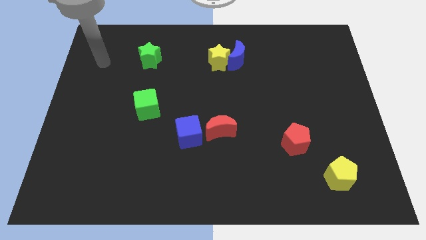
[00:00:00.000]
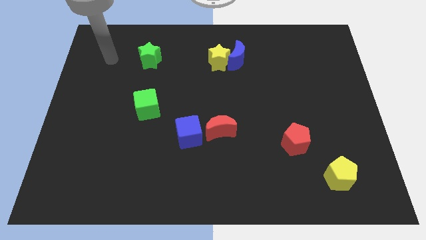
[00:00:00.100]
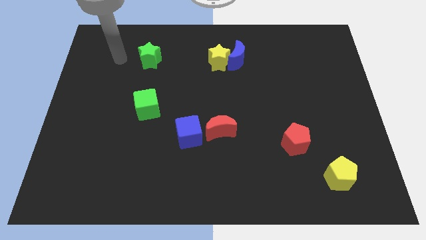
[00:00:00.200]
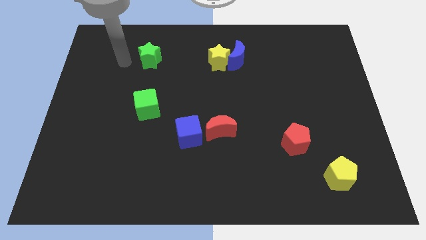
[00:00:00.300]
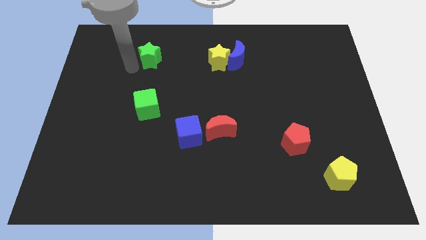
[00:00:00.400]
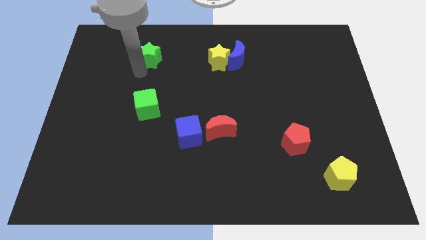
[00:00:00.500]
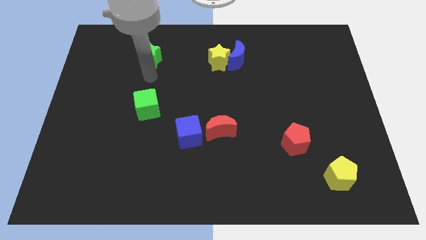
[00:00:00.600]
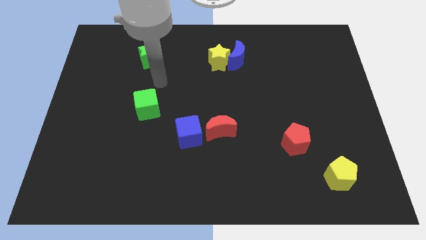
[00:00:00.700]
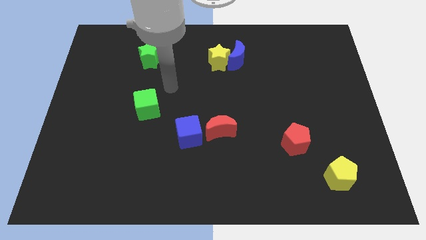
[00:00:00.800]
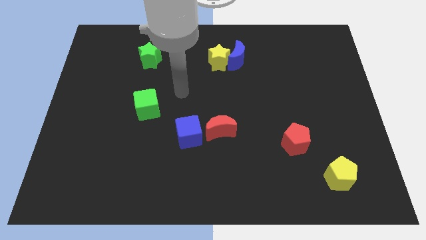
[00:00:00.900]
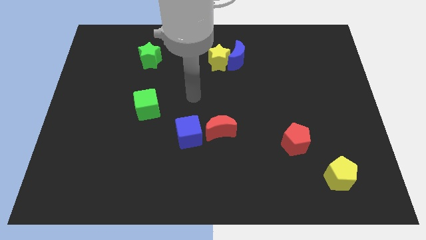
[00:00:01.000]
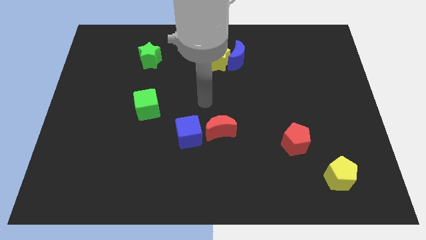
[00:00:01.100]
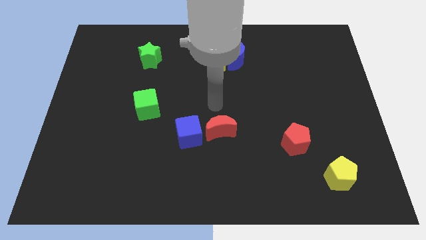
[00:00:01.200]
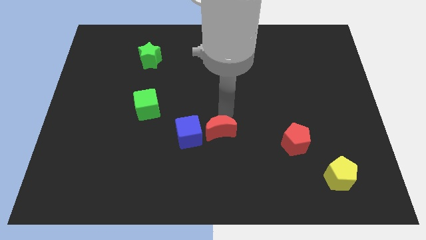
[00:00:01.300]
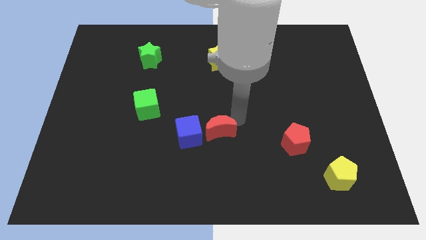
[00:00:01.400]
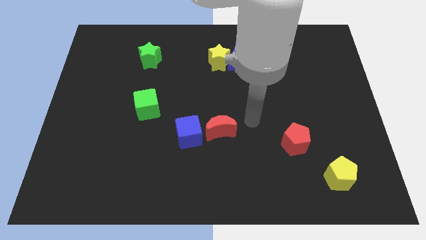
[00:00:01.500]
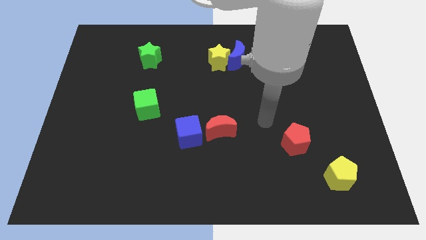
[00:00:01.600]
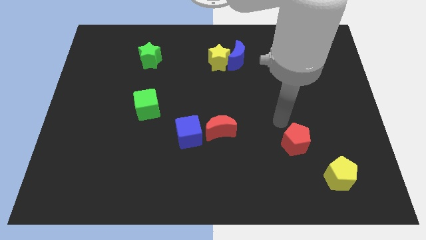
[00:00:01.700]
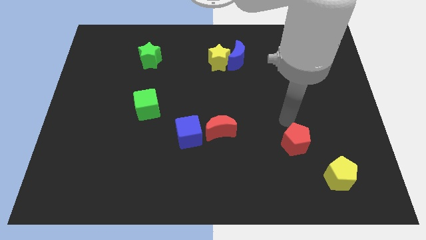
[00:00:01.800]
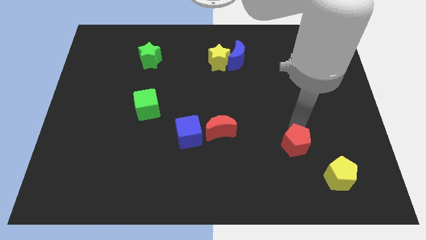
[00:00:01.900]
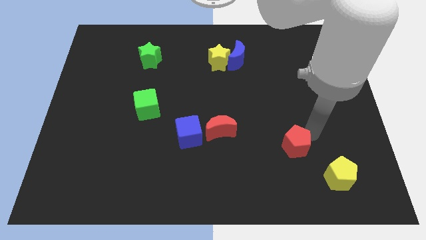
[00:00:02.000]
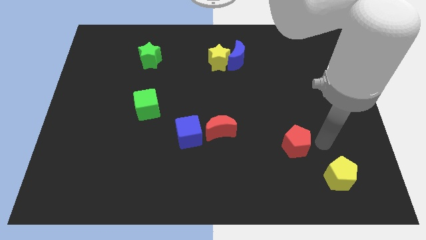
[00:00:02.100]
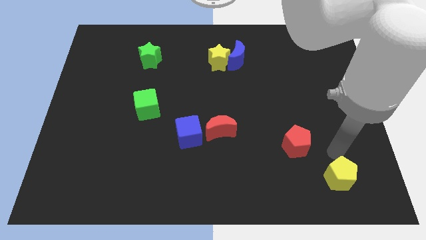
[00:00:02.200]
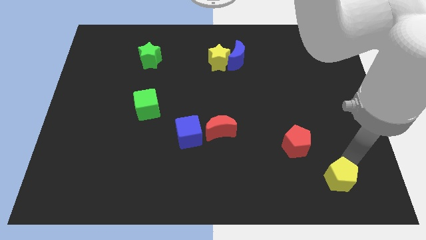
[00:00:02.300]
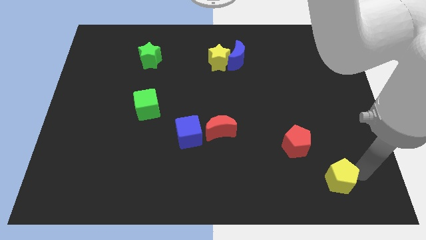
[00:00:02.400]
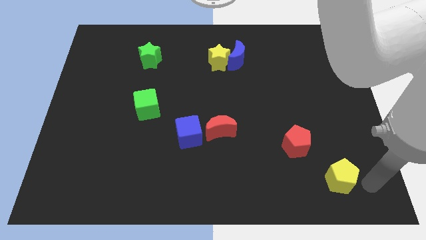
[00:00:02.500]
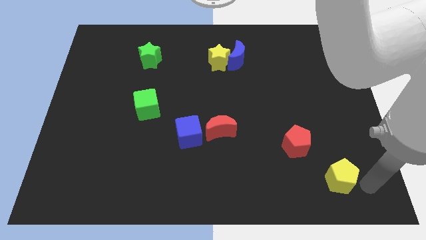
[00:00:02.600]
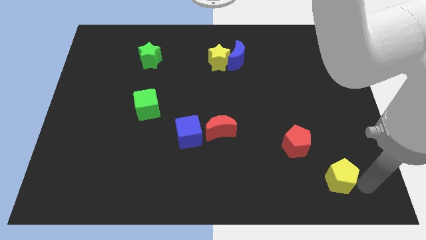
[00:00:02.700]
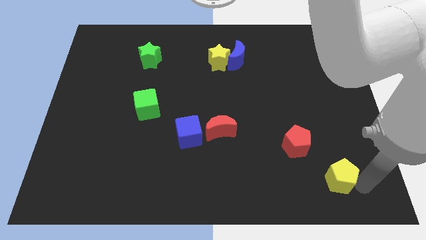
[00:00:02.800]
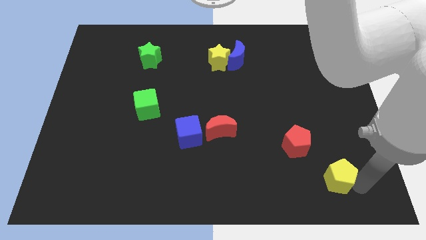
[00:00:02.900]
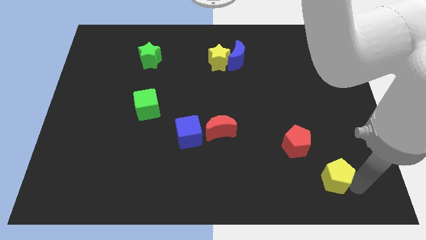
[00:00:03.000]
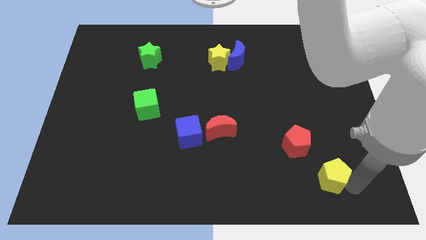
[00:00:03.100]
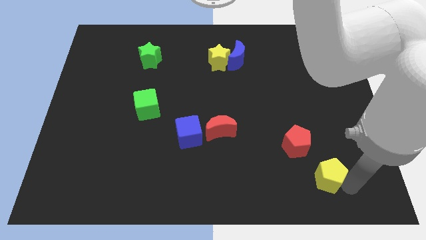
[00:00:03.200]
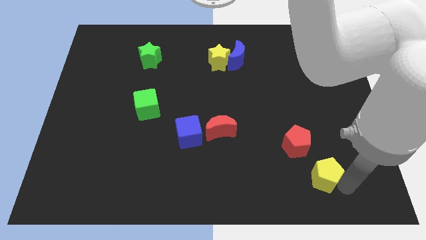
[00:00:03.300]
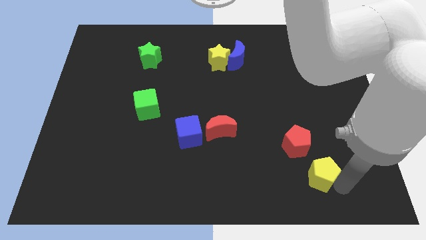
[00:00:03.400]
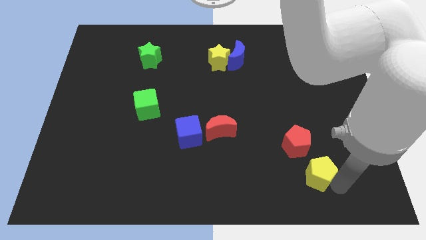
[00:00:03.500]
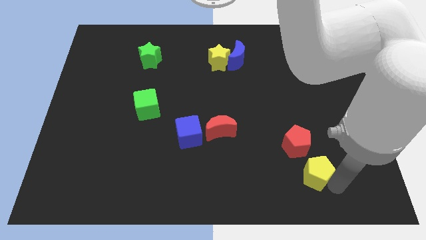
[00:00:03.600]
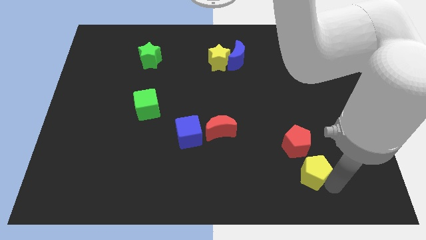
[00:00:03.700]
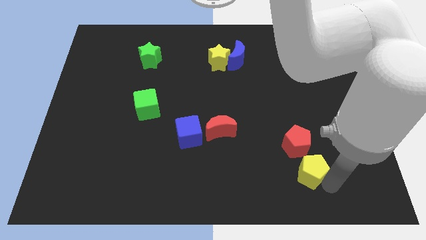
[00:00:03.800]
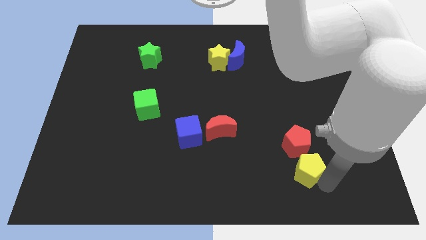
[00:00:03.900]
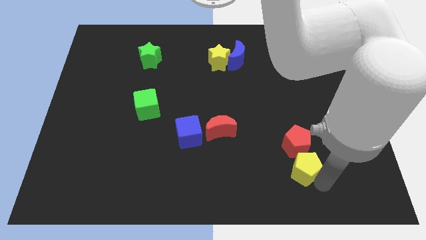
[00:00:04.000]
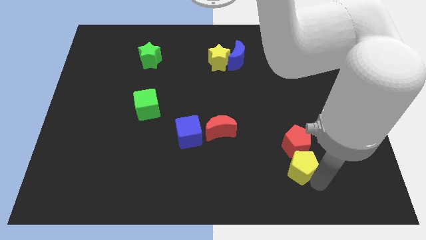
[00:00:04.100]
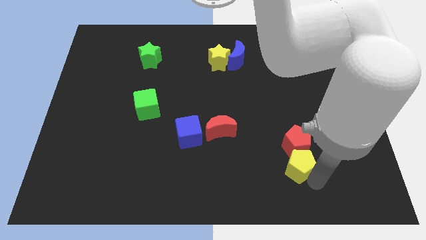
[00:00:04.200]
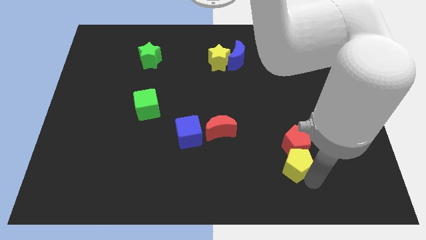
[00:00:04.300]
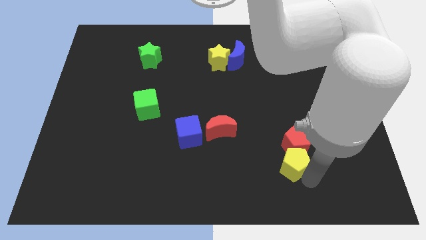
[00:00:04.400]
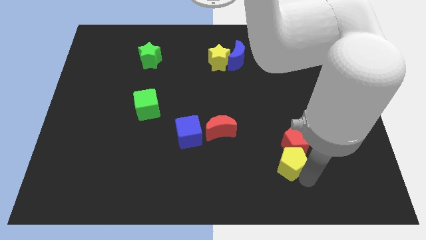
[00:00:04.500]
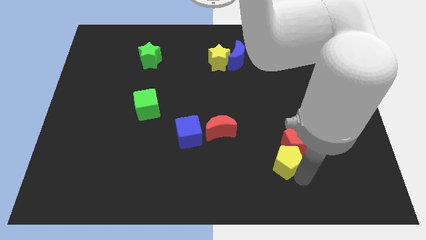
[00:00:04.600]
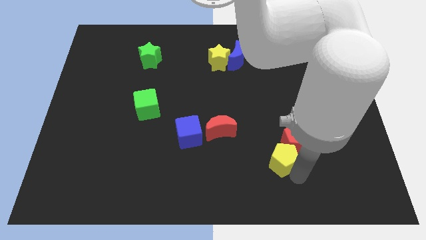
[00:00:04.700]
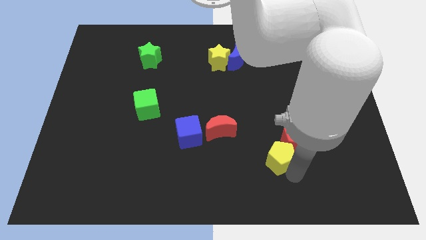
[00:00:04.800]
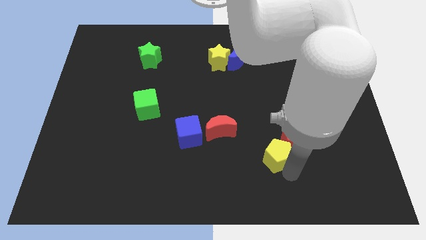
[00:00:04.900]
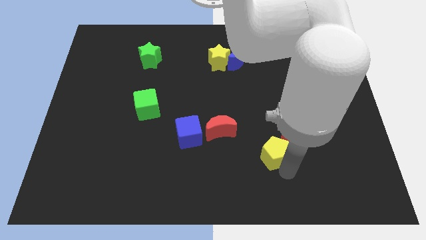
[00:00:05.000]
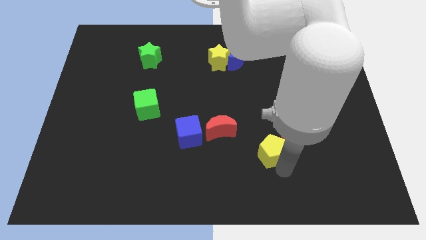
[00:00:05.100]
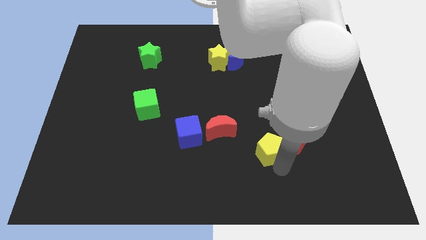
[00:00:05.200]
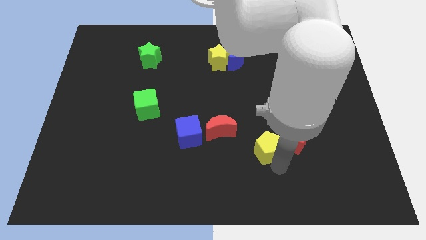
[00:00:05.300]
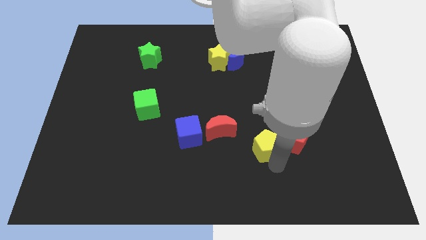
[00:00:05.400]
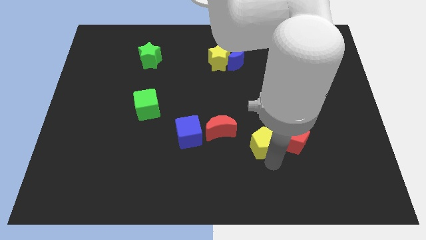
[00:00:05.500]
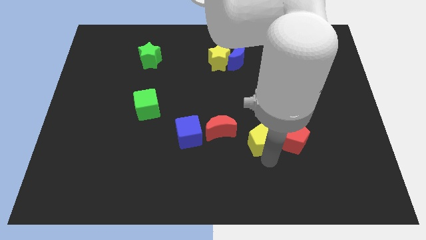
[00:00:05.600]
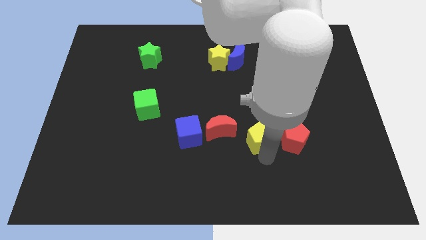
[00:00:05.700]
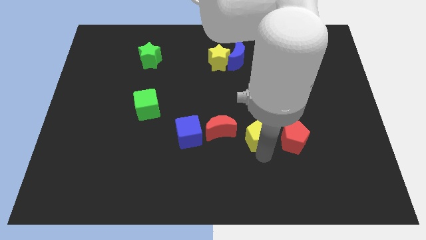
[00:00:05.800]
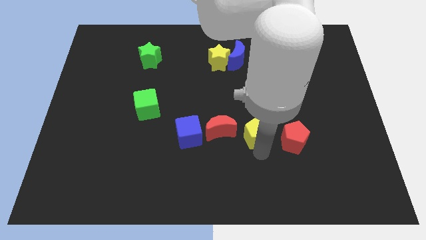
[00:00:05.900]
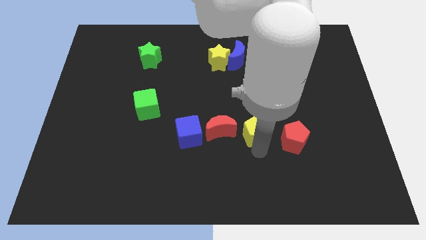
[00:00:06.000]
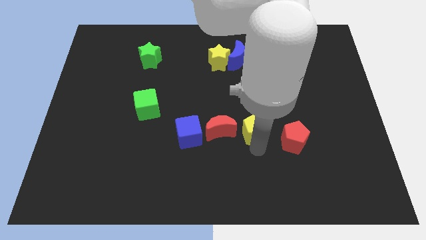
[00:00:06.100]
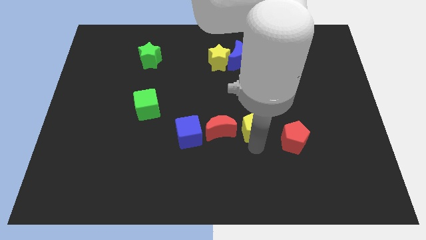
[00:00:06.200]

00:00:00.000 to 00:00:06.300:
slide the yellow pentagon to the middle of the board
